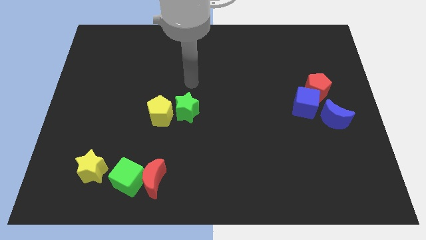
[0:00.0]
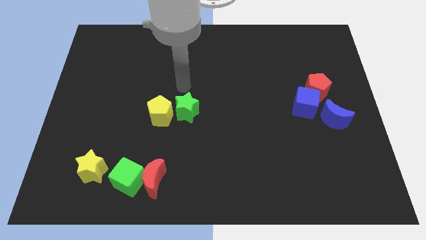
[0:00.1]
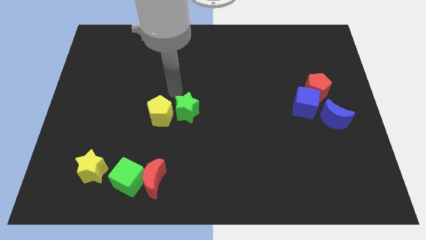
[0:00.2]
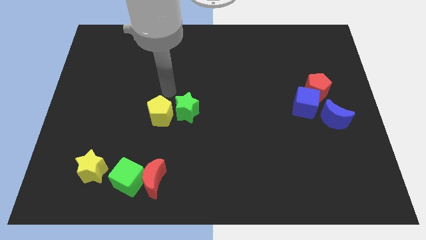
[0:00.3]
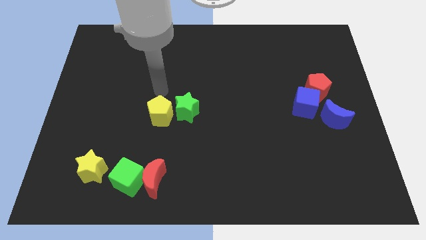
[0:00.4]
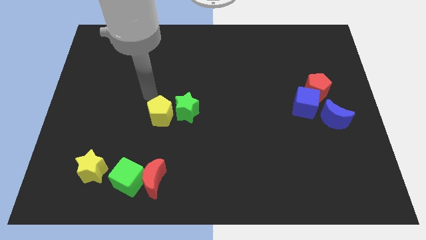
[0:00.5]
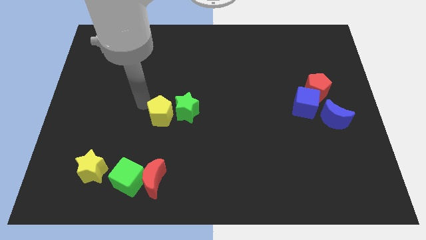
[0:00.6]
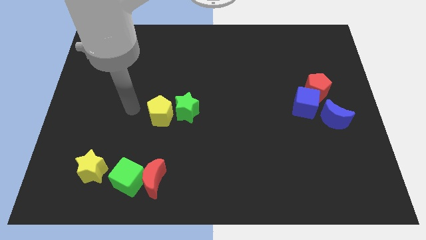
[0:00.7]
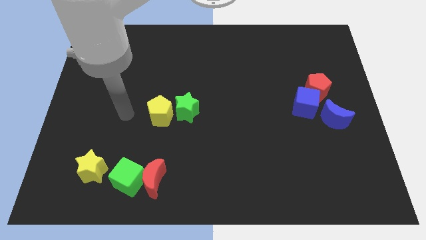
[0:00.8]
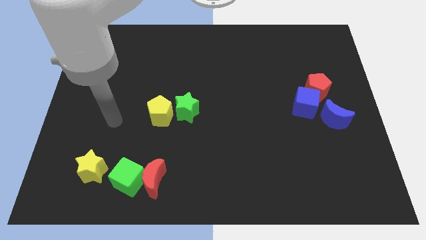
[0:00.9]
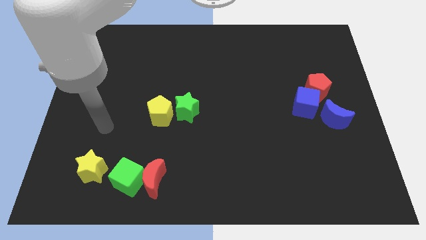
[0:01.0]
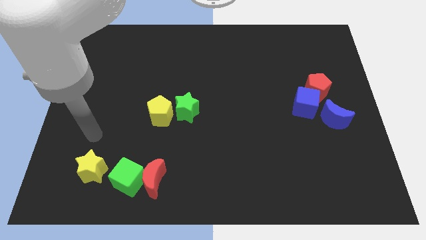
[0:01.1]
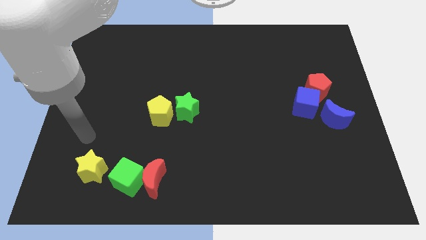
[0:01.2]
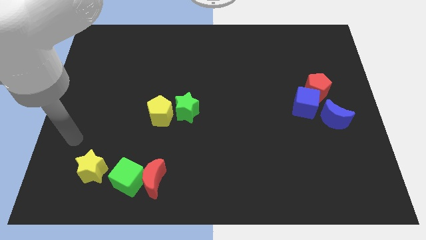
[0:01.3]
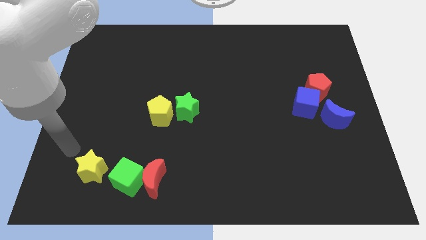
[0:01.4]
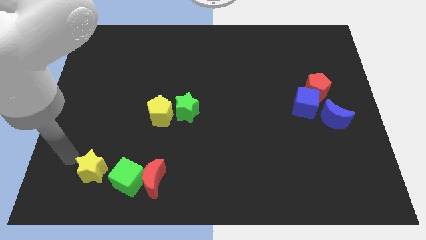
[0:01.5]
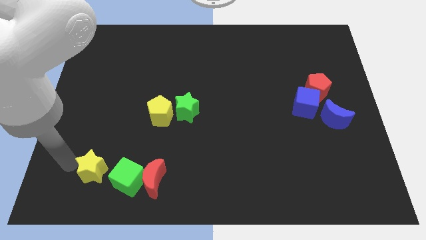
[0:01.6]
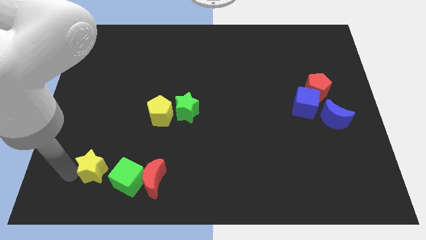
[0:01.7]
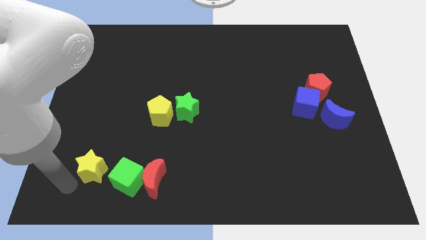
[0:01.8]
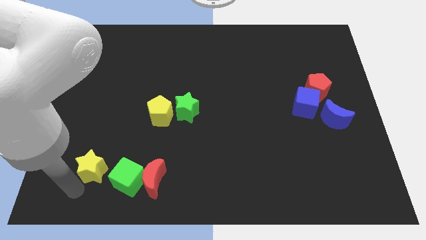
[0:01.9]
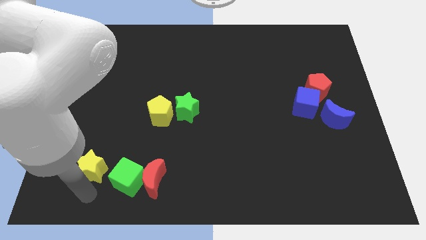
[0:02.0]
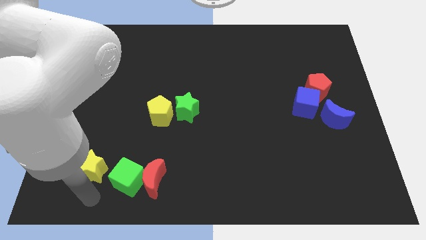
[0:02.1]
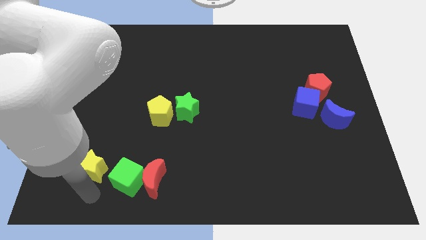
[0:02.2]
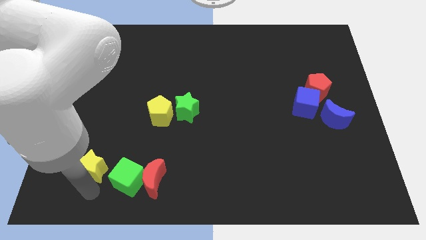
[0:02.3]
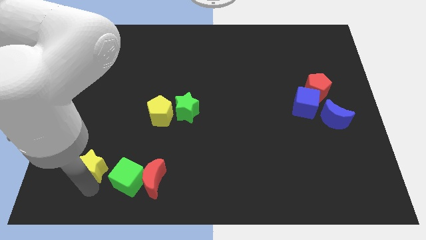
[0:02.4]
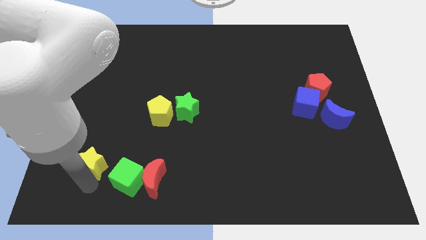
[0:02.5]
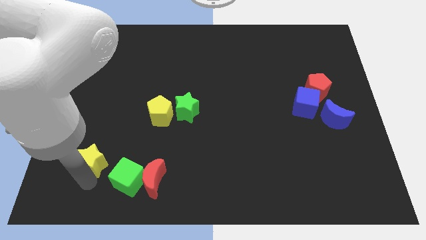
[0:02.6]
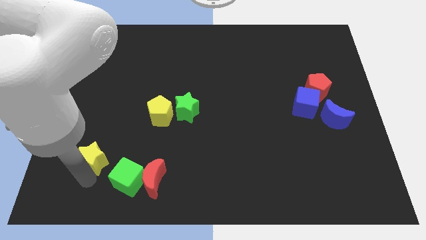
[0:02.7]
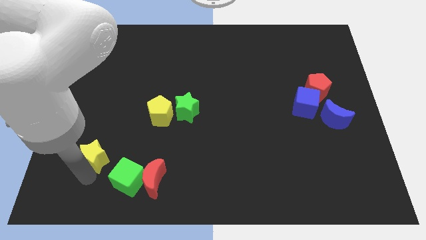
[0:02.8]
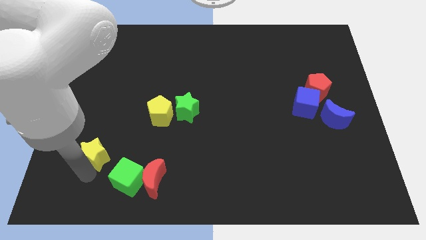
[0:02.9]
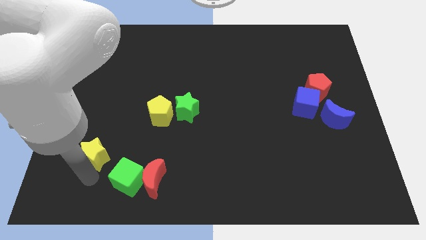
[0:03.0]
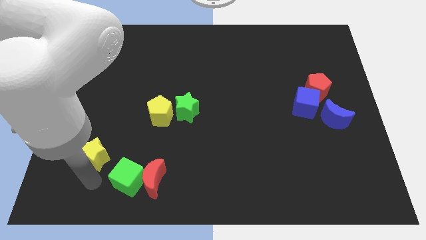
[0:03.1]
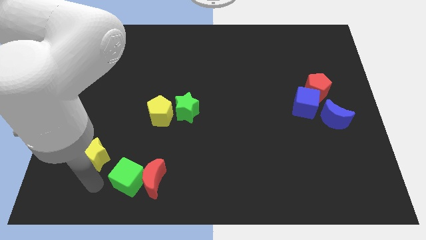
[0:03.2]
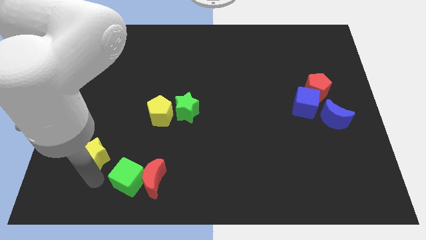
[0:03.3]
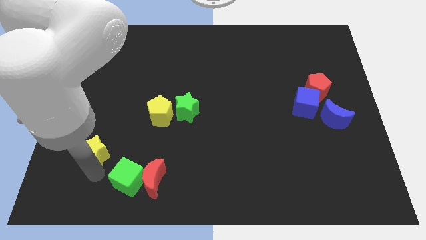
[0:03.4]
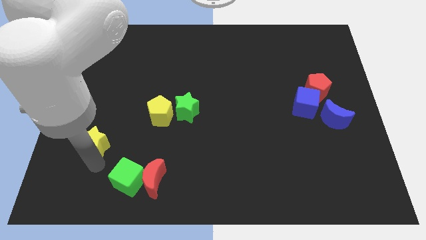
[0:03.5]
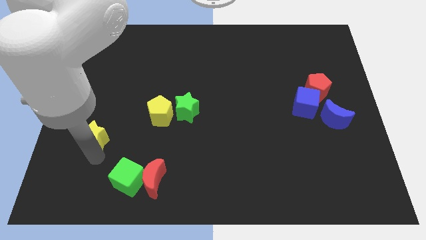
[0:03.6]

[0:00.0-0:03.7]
slightly push the yellow star upwards

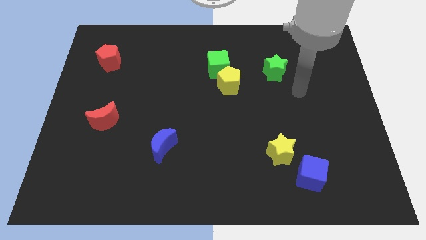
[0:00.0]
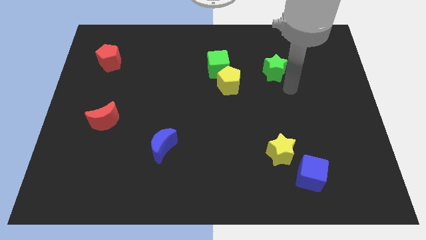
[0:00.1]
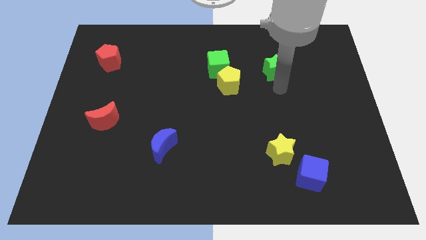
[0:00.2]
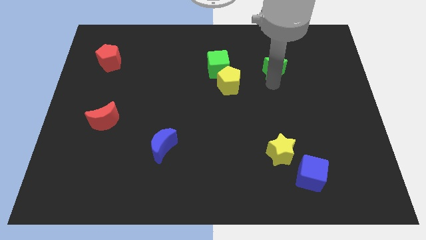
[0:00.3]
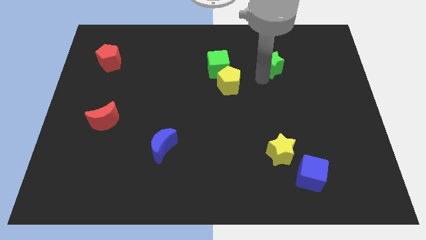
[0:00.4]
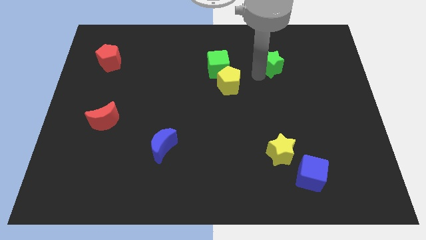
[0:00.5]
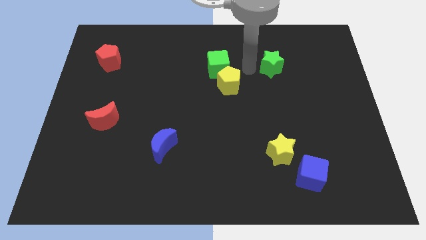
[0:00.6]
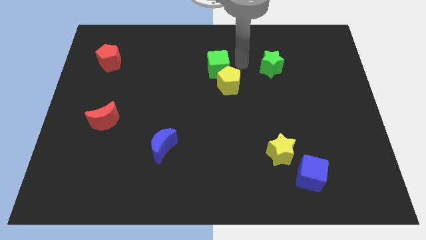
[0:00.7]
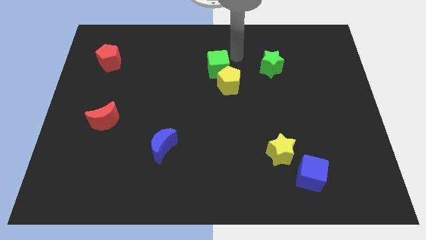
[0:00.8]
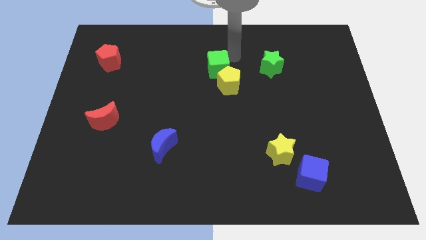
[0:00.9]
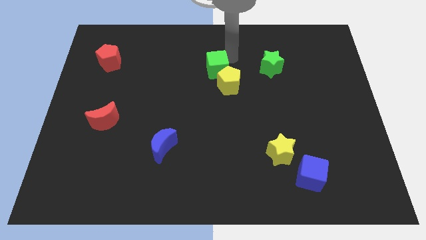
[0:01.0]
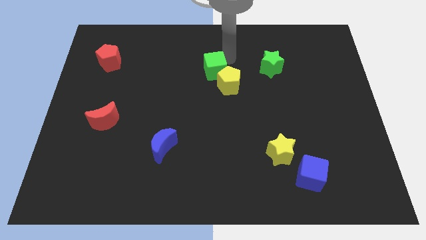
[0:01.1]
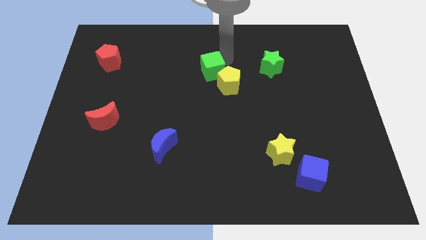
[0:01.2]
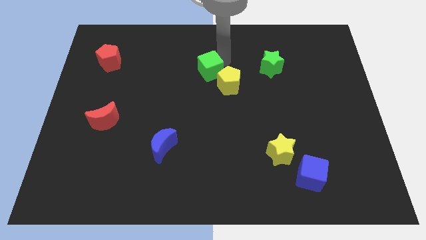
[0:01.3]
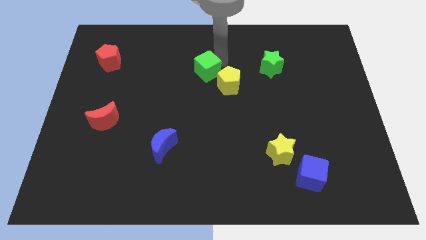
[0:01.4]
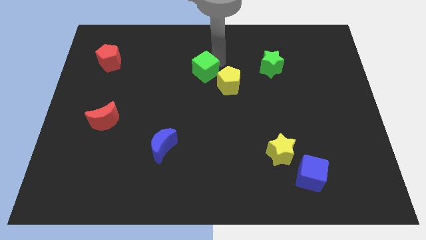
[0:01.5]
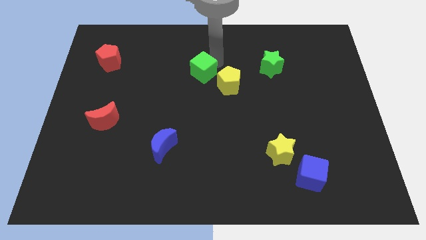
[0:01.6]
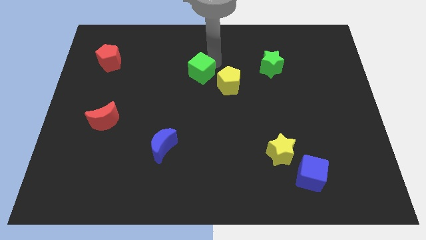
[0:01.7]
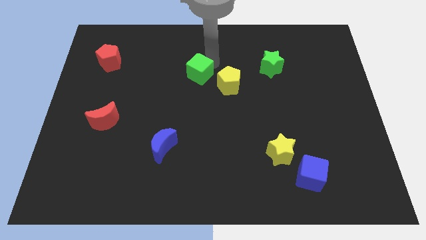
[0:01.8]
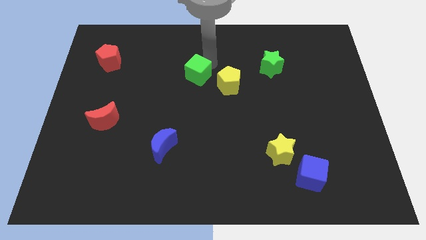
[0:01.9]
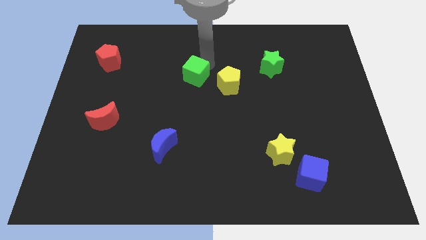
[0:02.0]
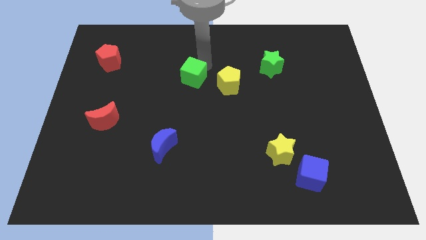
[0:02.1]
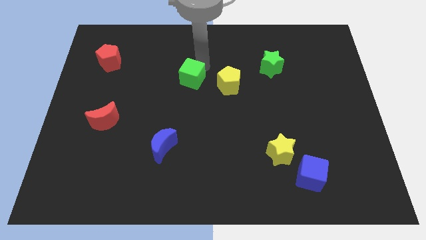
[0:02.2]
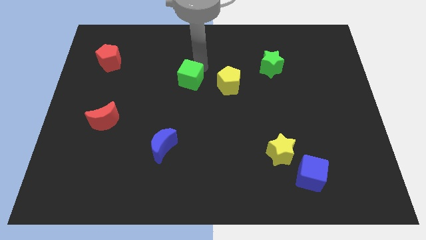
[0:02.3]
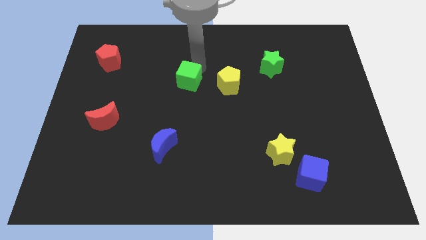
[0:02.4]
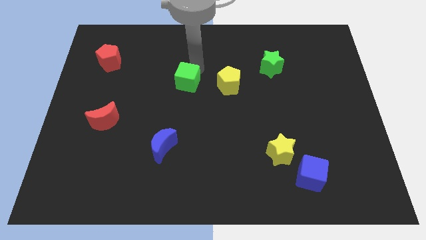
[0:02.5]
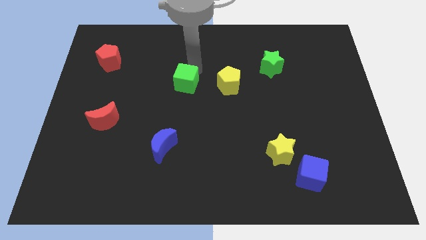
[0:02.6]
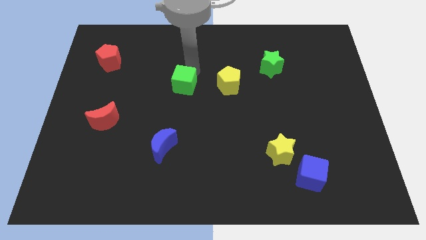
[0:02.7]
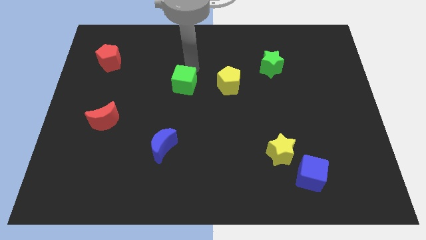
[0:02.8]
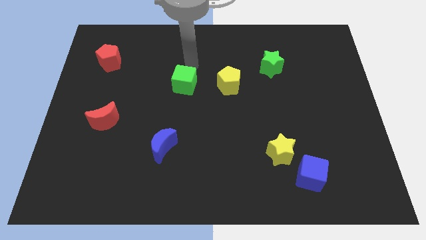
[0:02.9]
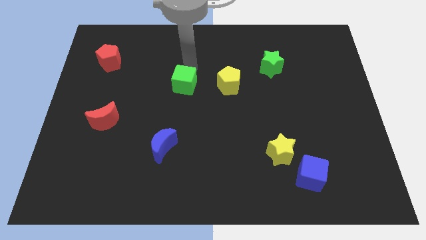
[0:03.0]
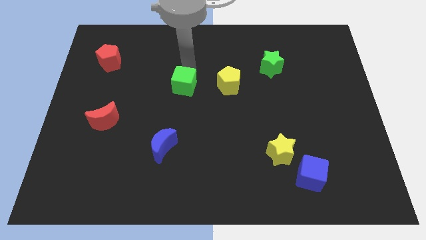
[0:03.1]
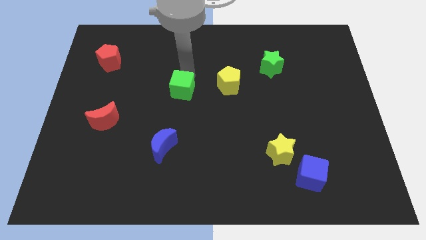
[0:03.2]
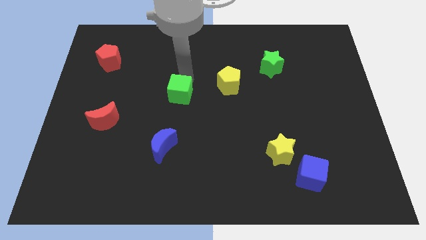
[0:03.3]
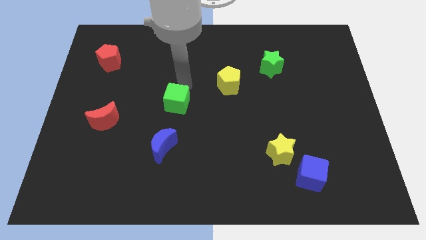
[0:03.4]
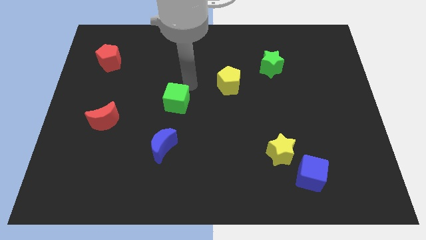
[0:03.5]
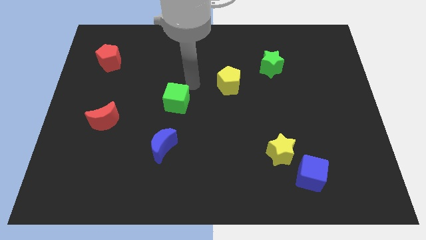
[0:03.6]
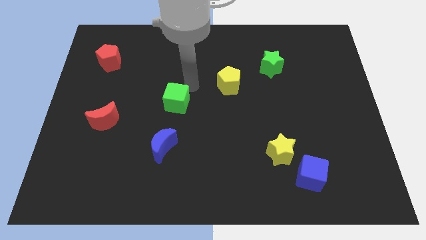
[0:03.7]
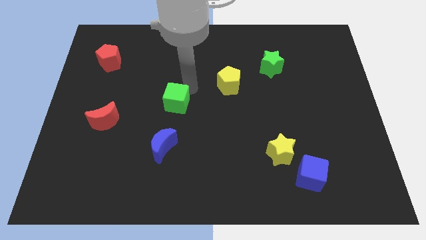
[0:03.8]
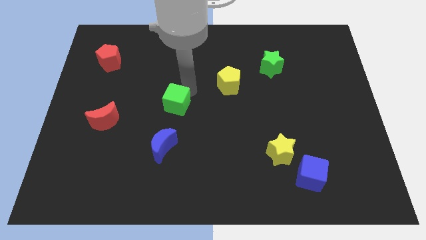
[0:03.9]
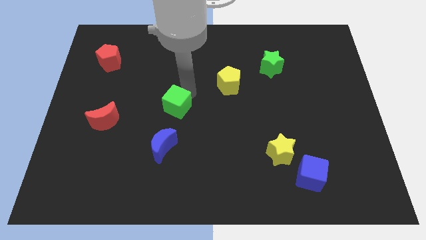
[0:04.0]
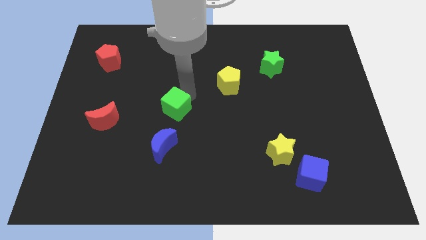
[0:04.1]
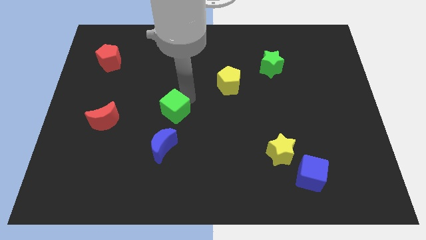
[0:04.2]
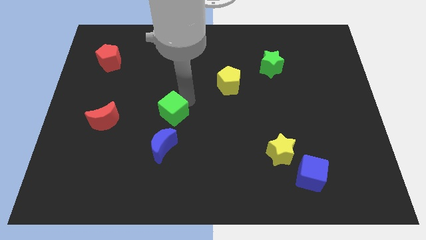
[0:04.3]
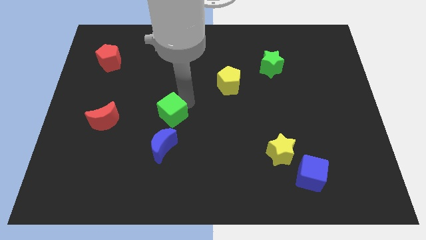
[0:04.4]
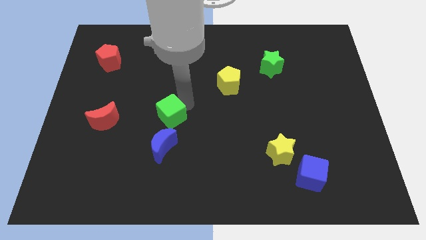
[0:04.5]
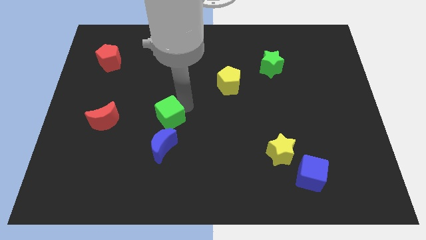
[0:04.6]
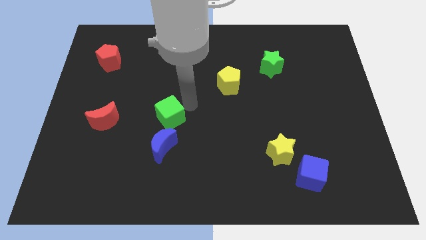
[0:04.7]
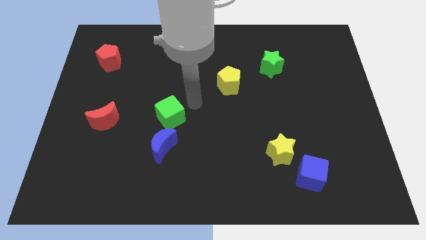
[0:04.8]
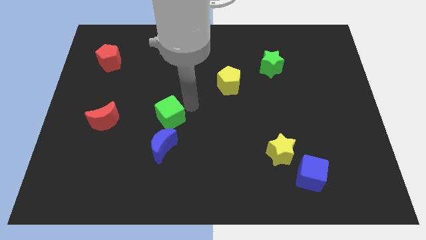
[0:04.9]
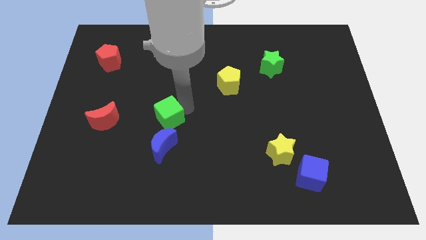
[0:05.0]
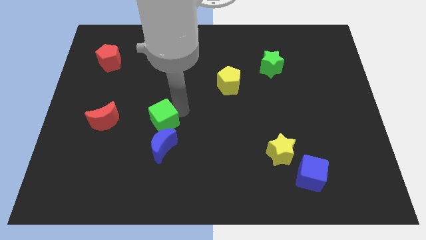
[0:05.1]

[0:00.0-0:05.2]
move the green cube diagonally down and to the left
